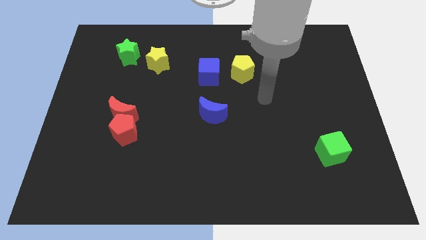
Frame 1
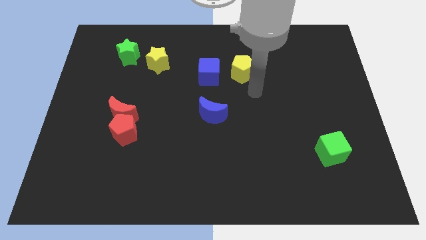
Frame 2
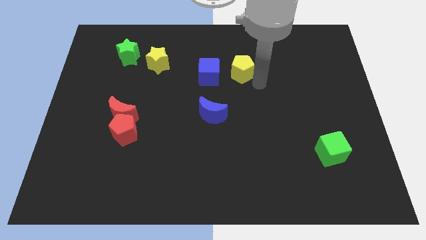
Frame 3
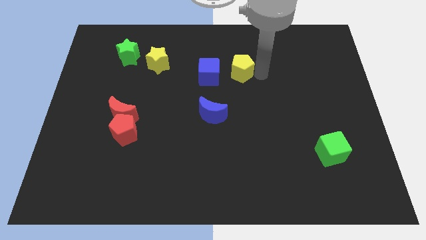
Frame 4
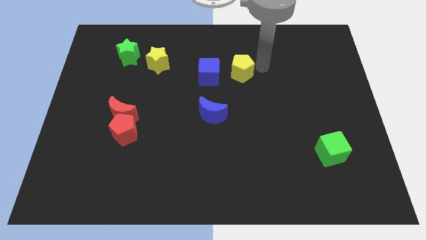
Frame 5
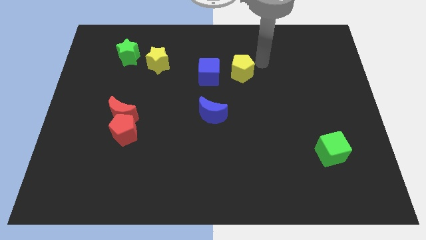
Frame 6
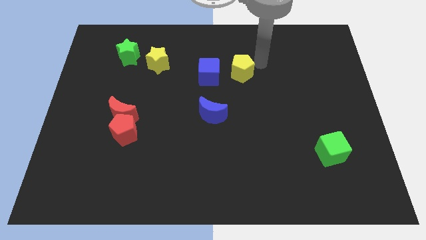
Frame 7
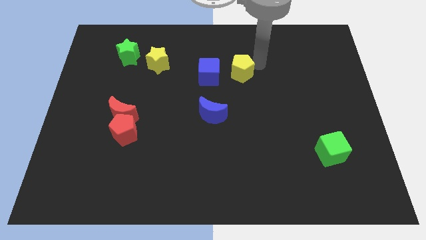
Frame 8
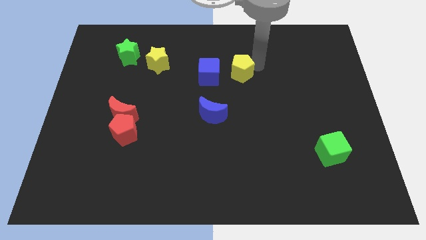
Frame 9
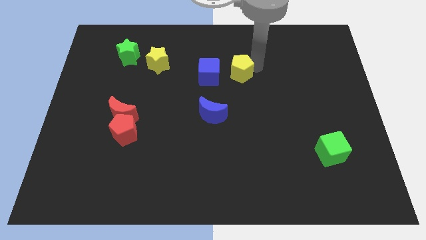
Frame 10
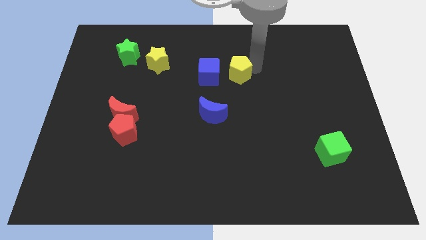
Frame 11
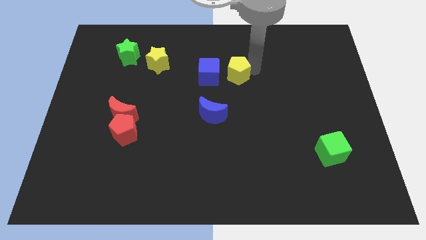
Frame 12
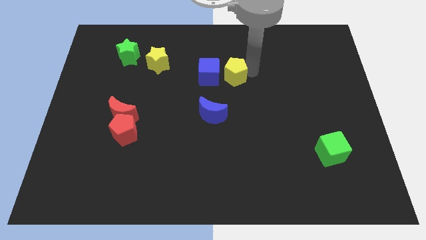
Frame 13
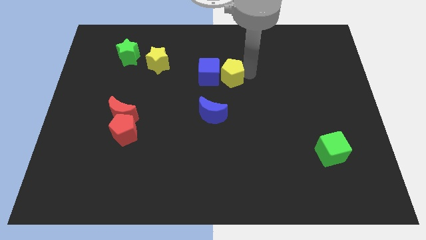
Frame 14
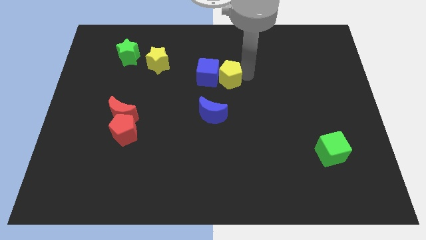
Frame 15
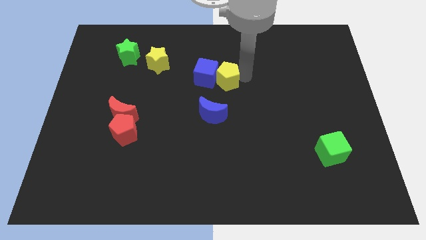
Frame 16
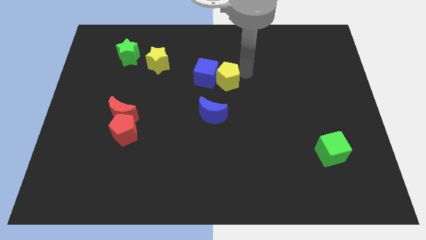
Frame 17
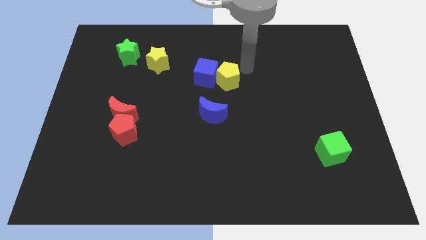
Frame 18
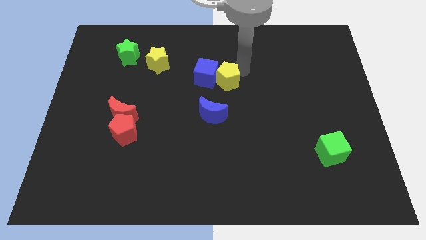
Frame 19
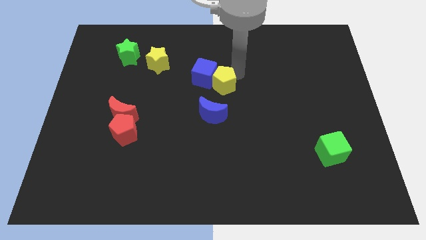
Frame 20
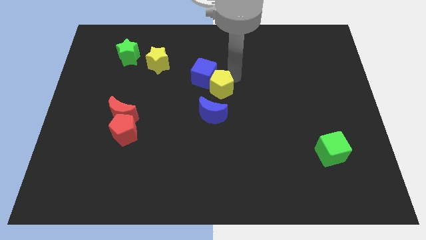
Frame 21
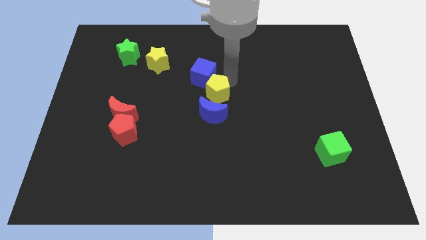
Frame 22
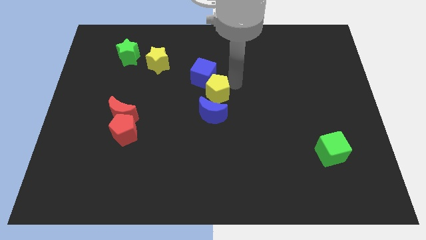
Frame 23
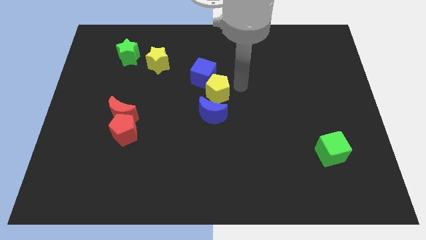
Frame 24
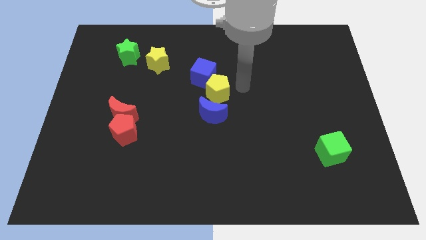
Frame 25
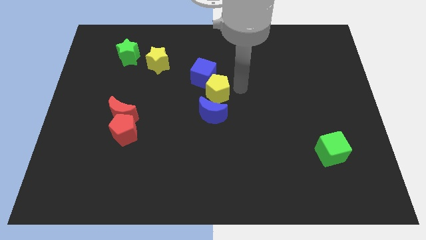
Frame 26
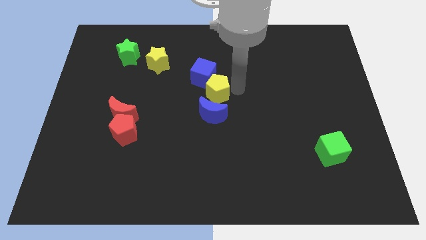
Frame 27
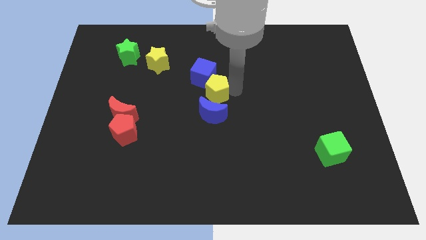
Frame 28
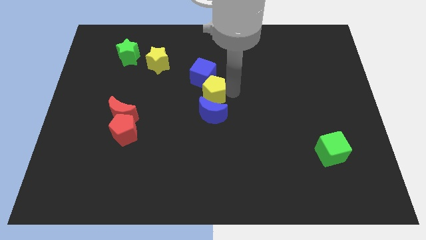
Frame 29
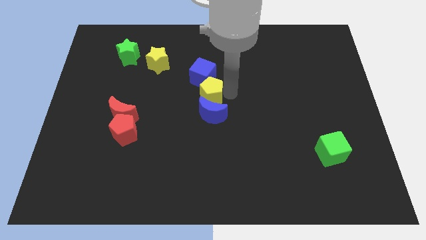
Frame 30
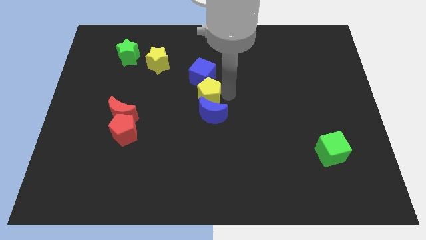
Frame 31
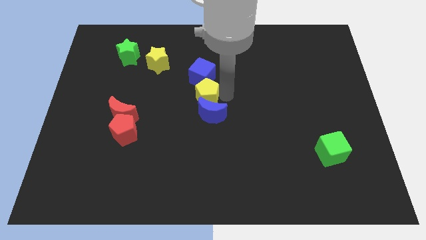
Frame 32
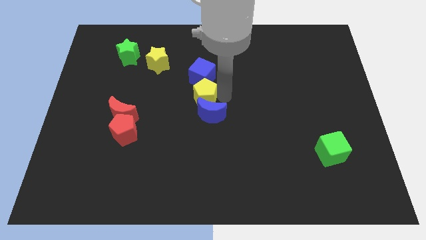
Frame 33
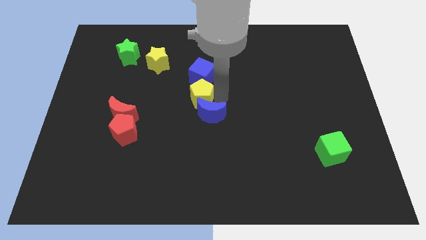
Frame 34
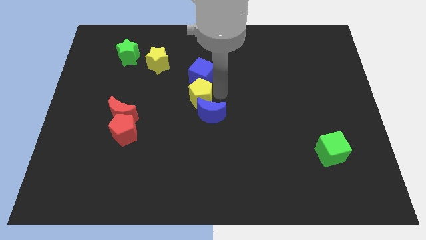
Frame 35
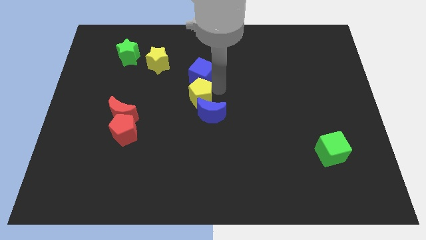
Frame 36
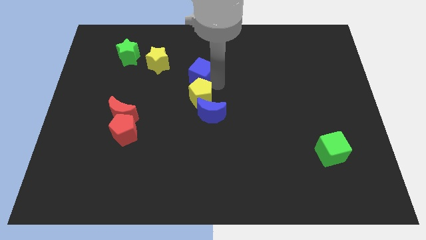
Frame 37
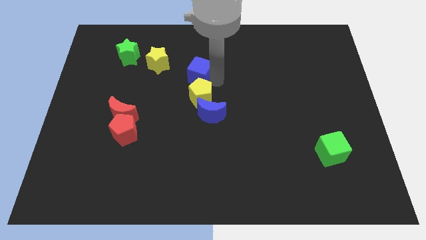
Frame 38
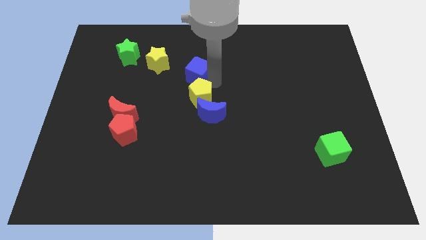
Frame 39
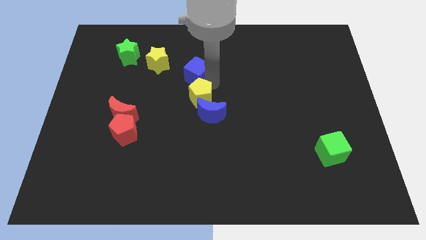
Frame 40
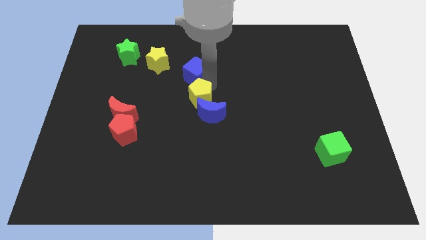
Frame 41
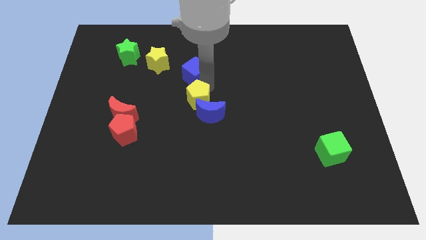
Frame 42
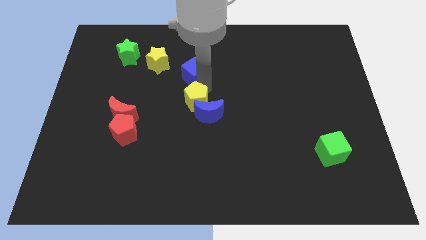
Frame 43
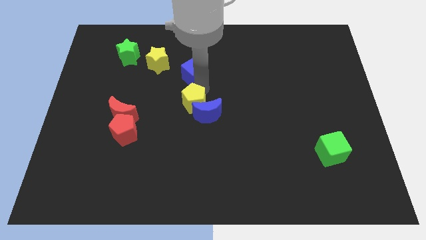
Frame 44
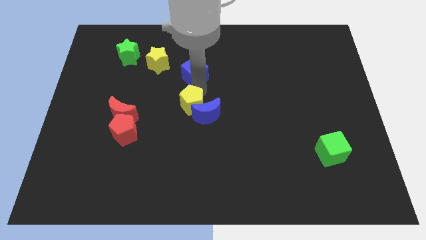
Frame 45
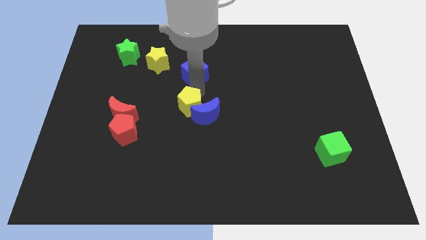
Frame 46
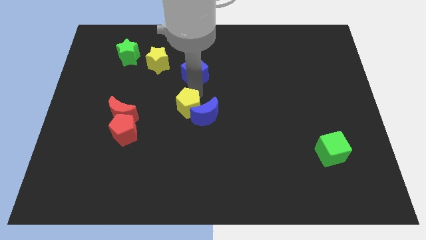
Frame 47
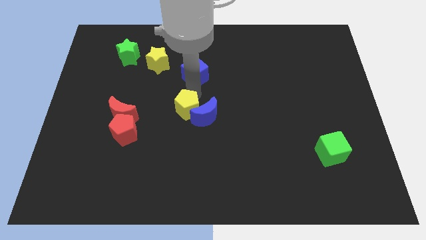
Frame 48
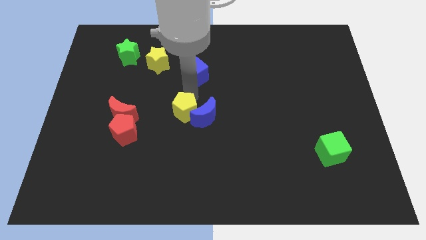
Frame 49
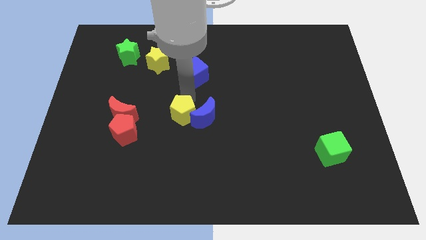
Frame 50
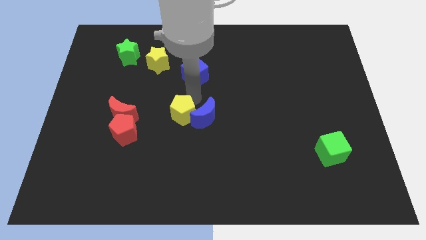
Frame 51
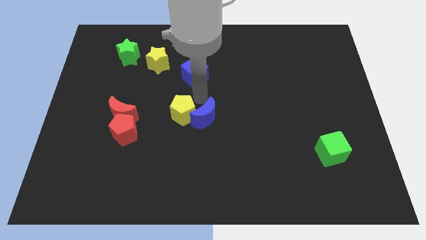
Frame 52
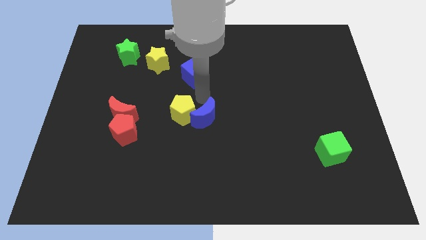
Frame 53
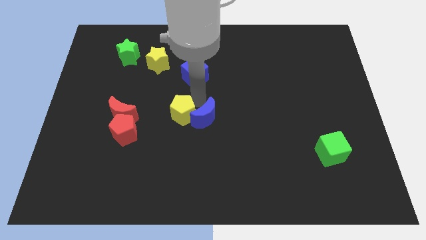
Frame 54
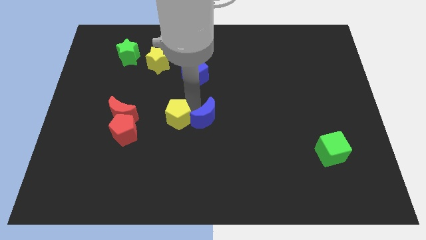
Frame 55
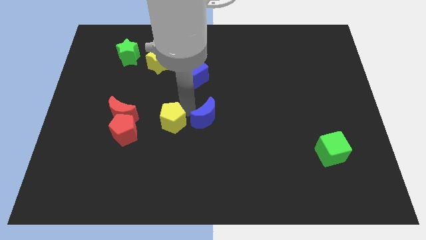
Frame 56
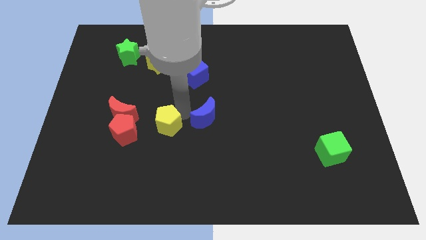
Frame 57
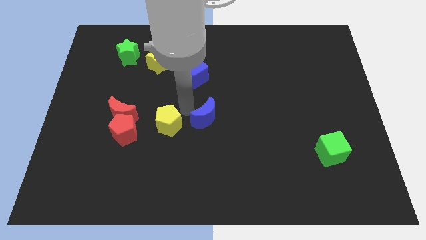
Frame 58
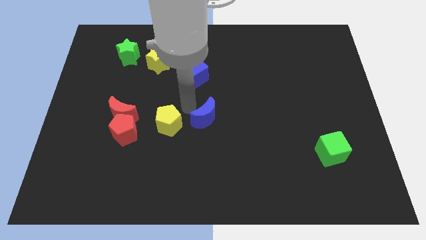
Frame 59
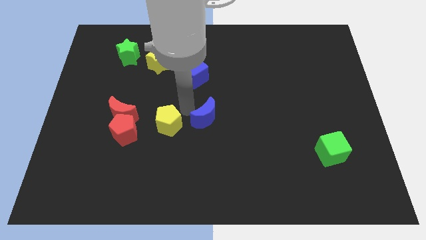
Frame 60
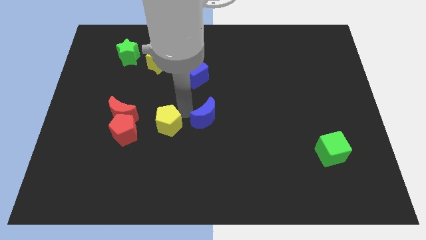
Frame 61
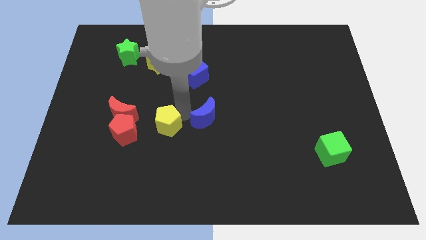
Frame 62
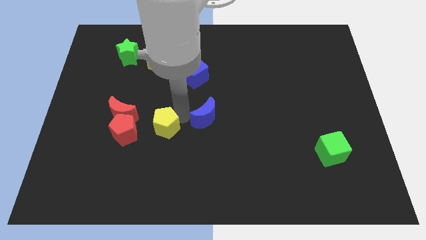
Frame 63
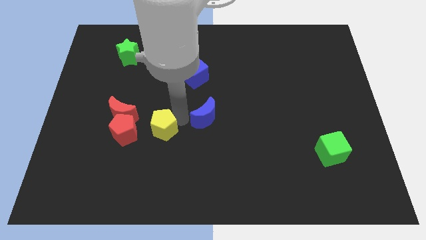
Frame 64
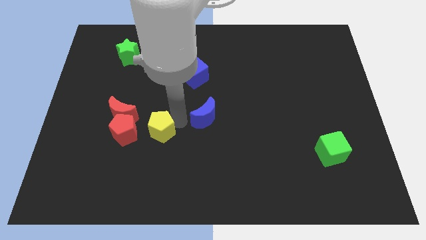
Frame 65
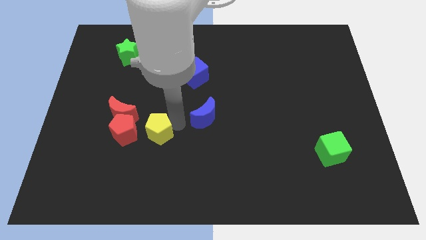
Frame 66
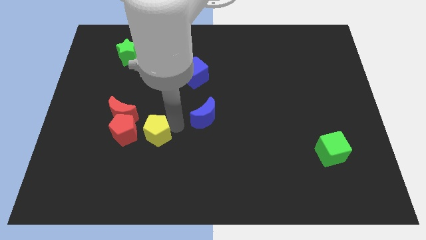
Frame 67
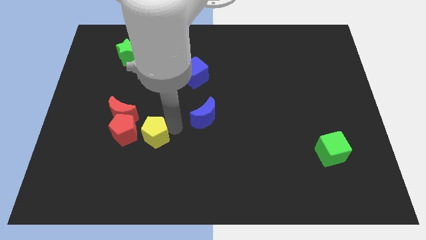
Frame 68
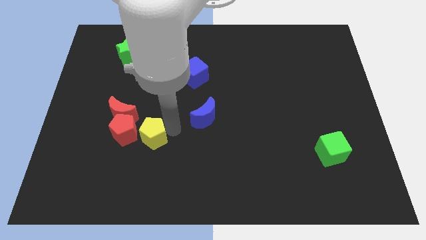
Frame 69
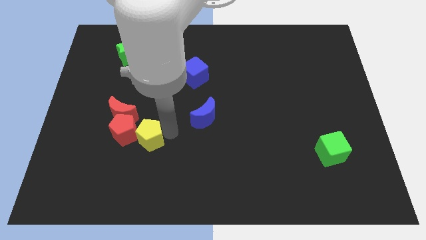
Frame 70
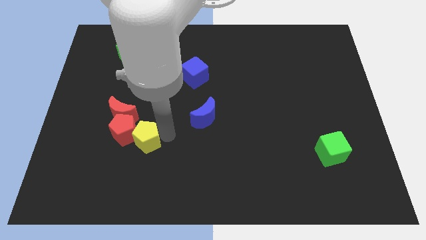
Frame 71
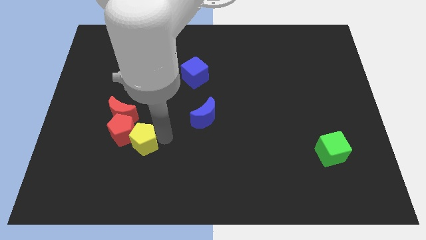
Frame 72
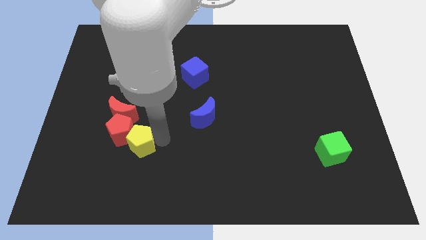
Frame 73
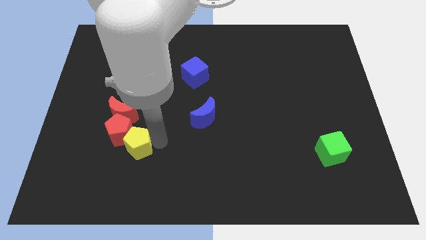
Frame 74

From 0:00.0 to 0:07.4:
move the yellow pentagon to the bottom of the red moon
